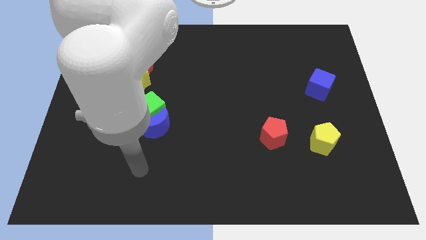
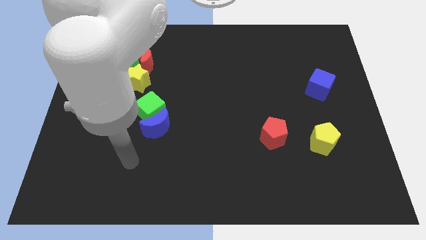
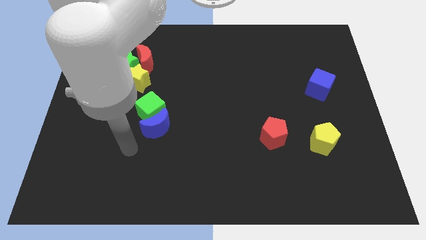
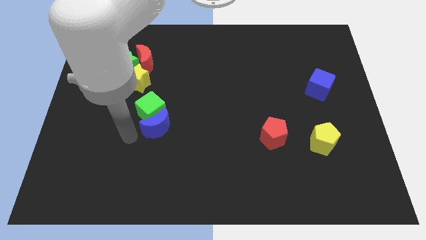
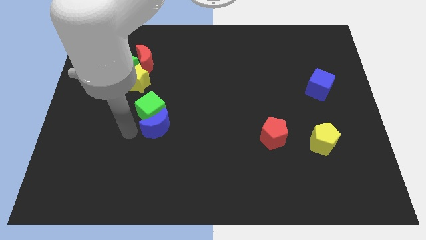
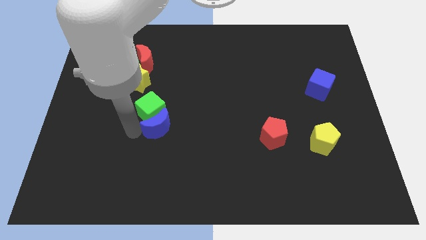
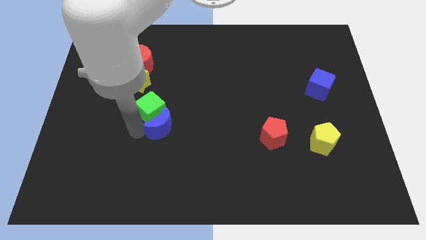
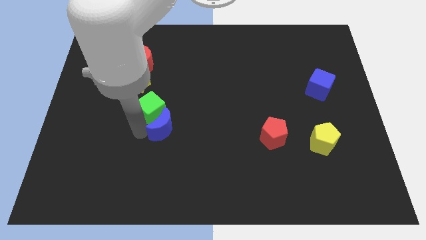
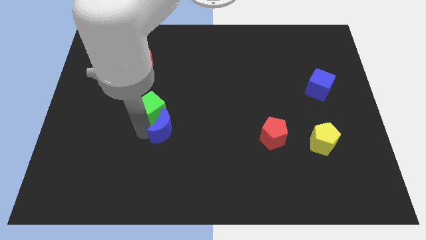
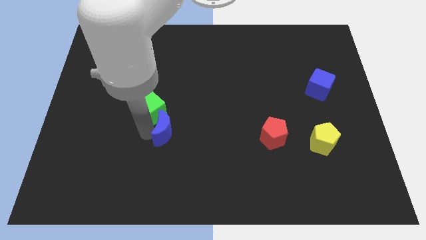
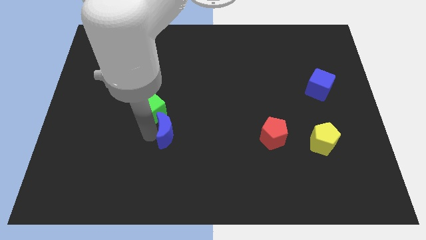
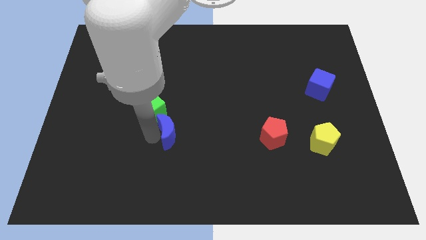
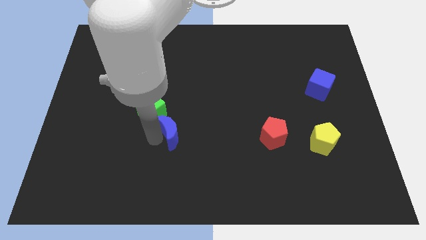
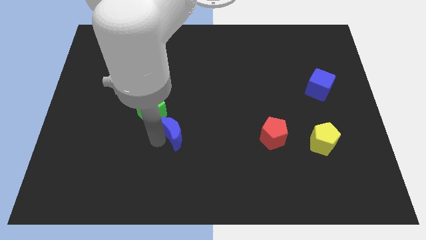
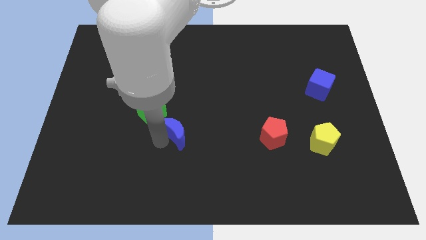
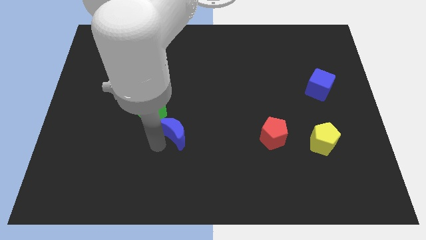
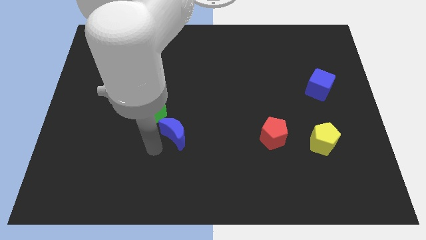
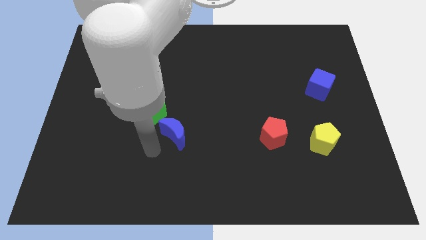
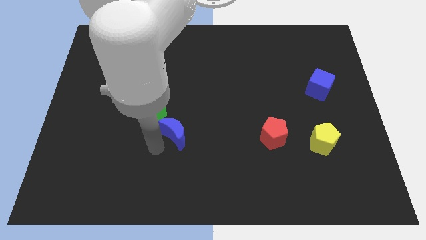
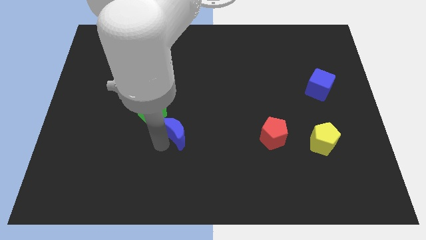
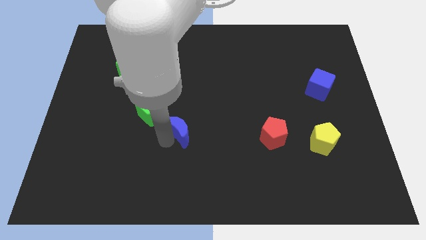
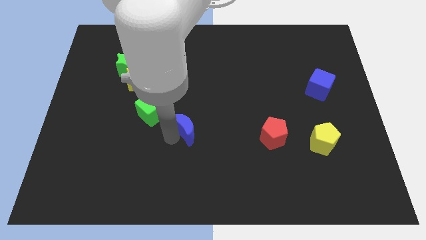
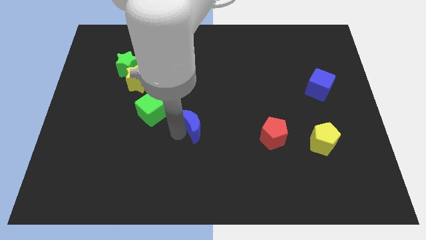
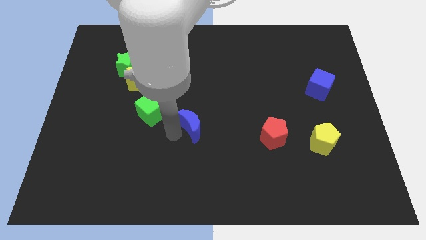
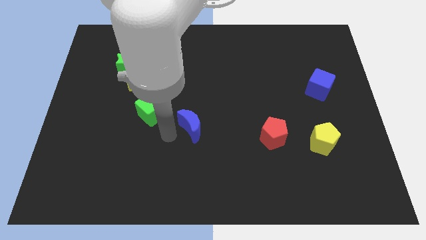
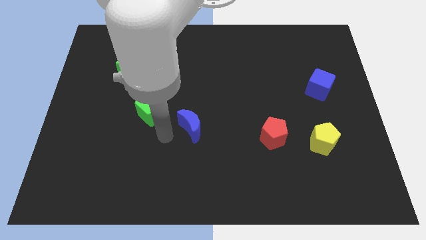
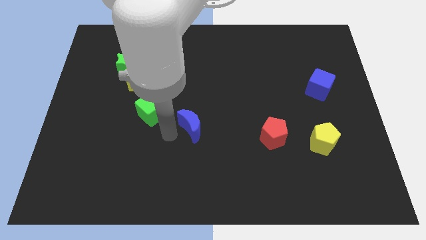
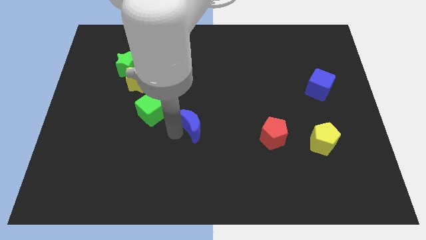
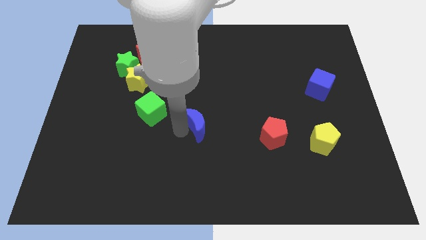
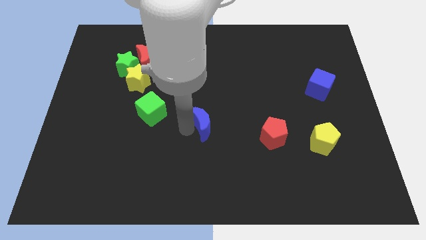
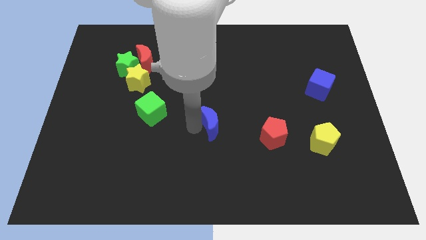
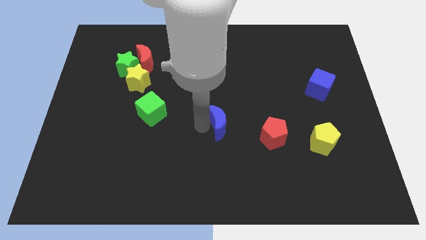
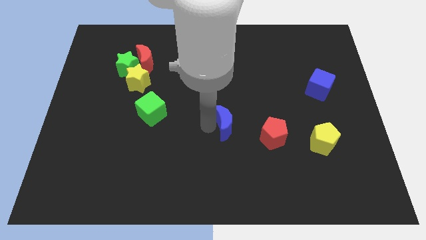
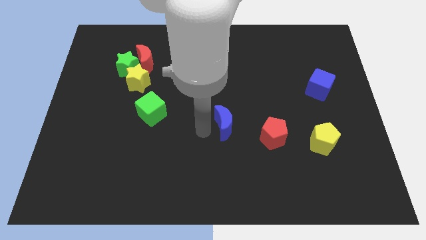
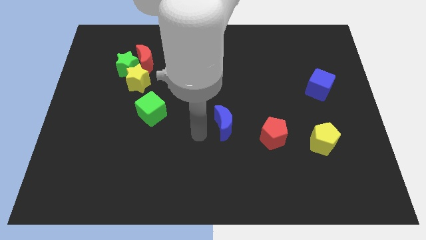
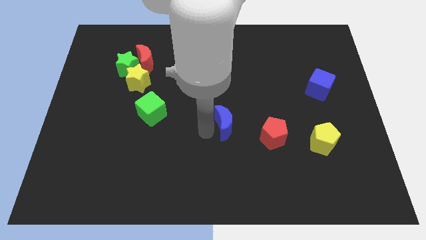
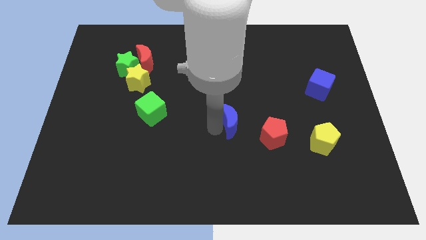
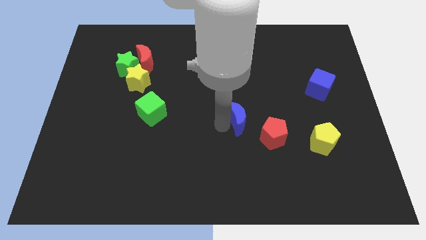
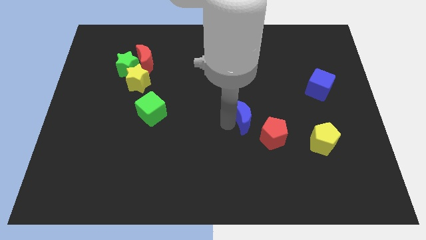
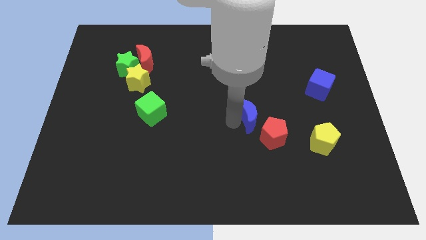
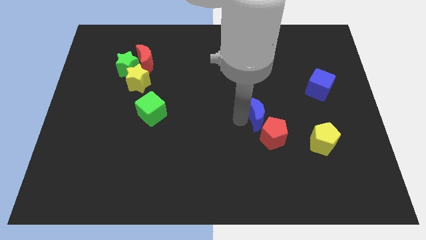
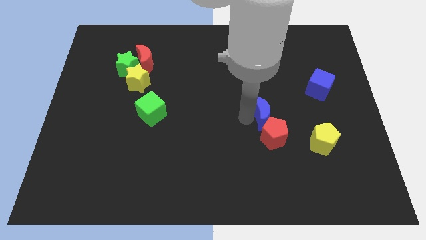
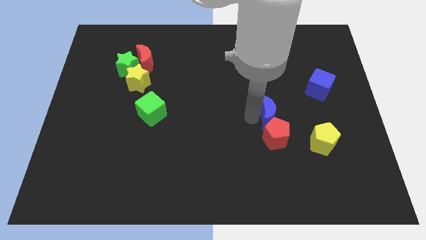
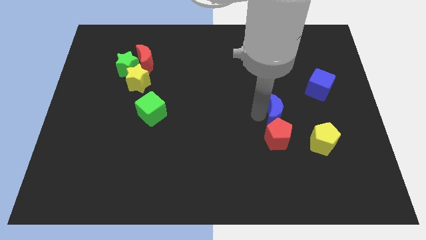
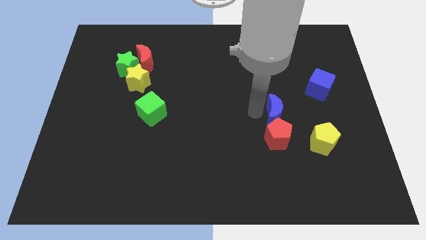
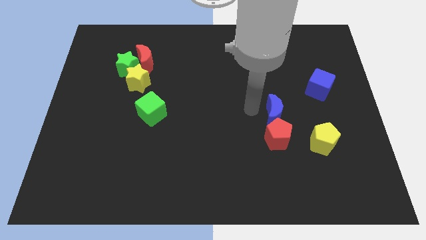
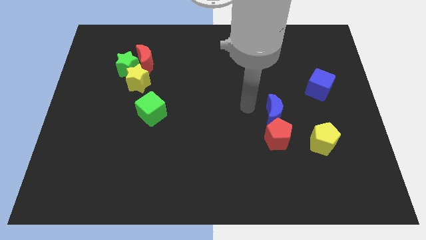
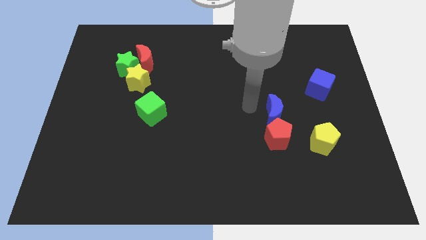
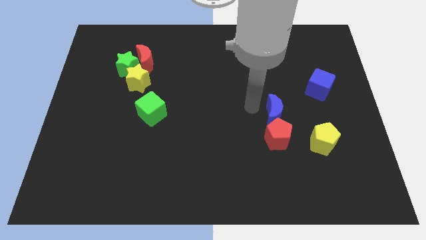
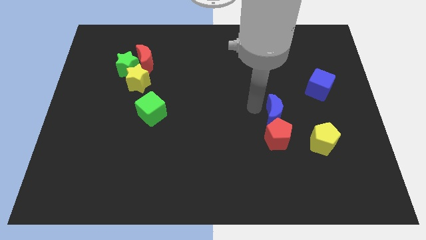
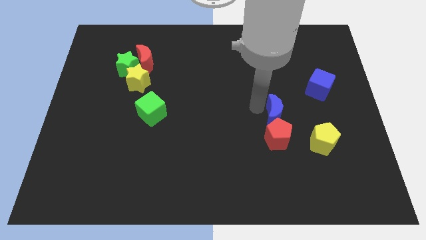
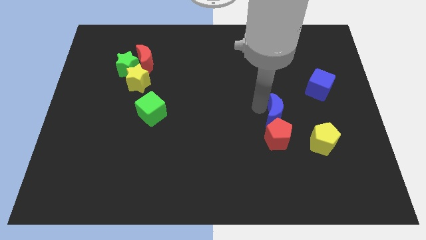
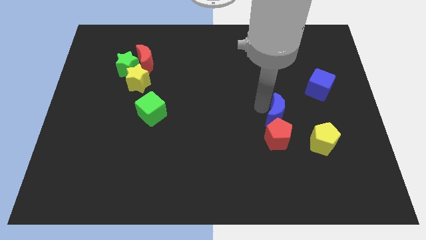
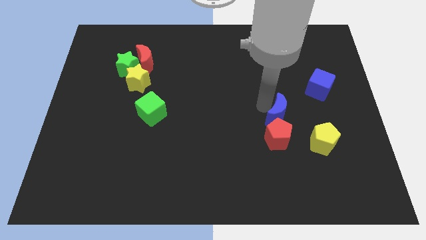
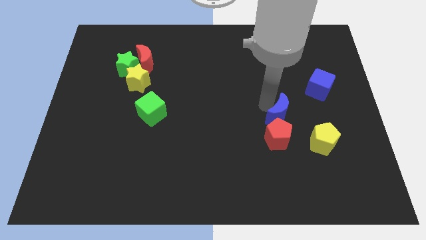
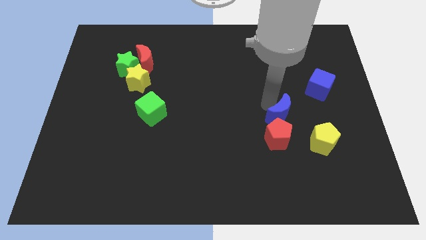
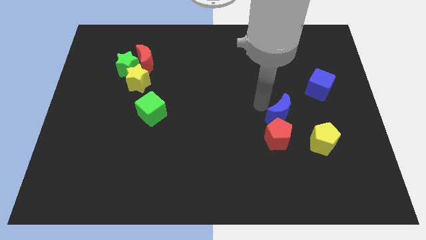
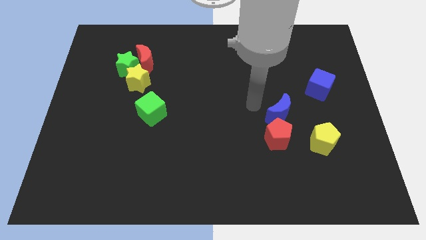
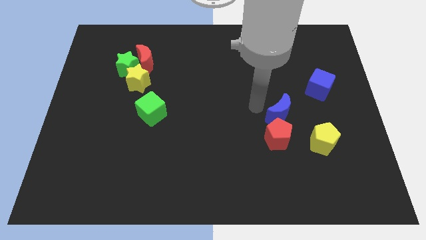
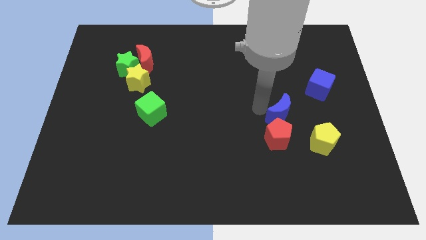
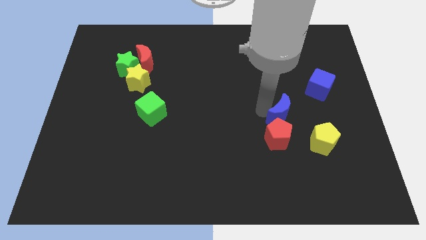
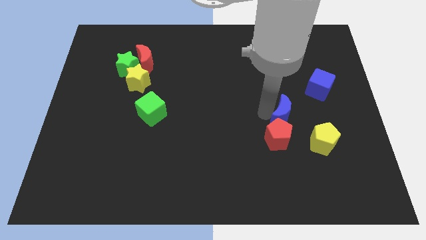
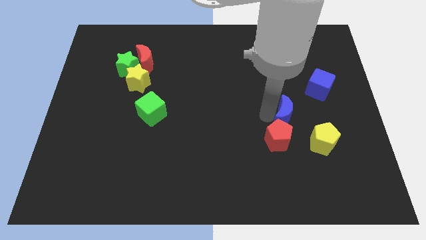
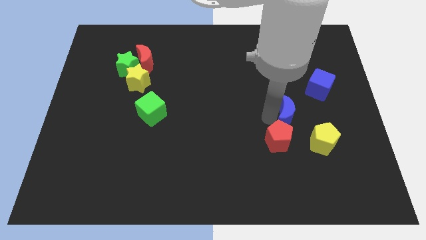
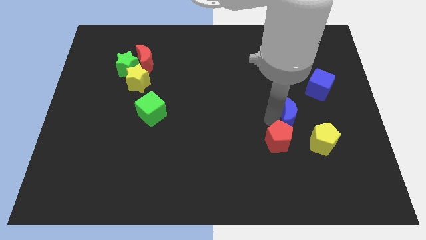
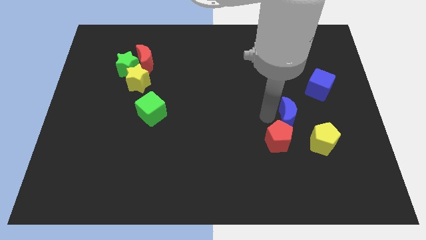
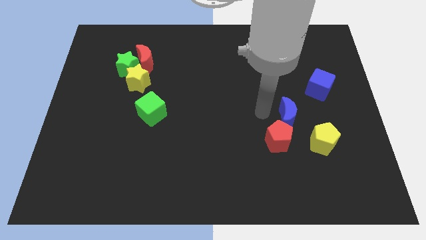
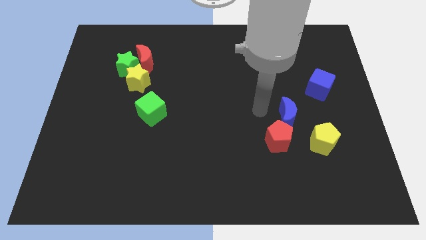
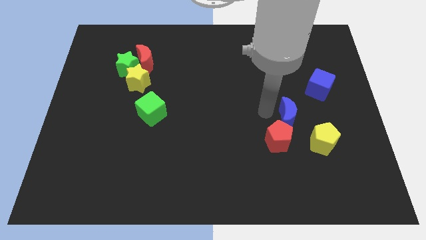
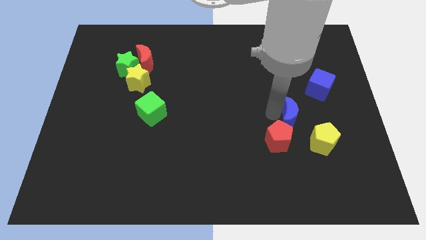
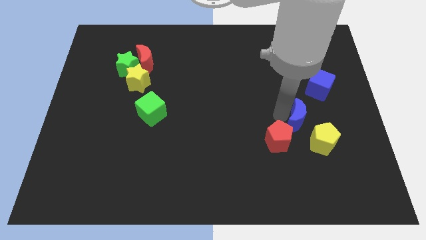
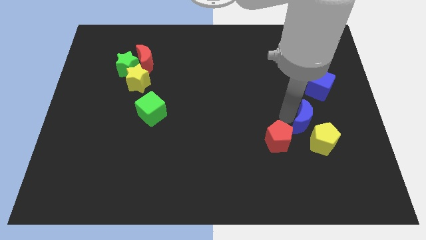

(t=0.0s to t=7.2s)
move the blue moon to the right of the red pentagon
